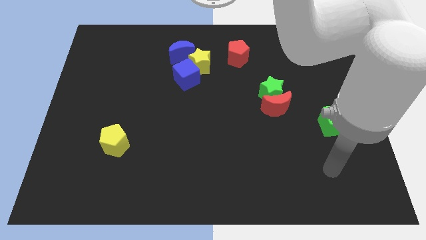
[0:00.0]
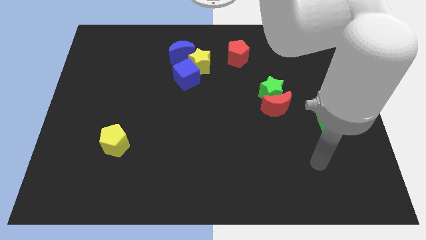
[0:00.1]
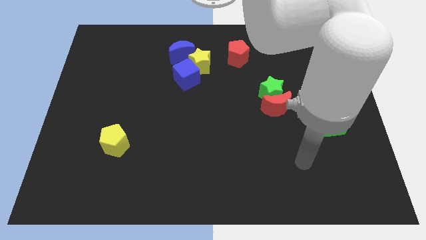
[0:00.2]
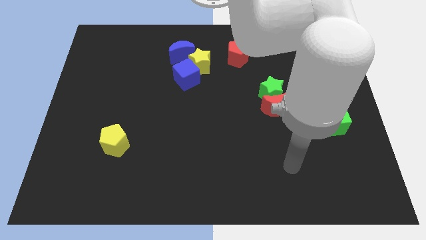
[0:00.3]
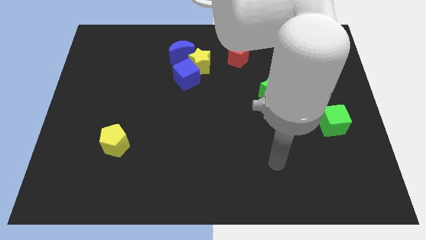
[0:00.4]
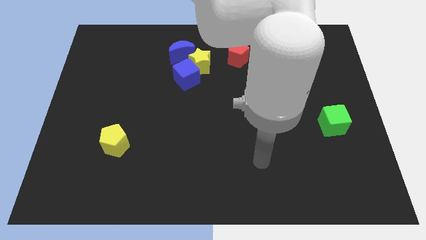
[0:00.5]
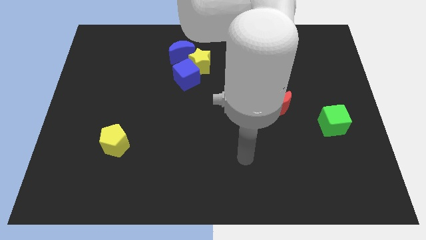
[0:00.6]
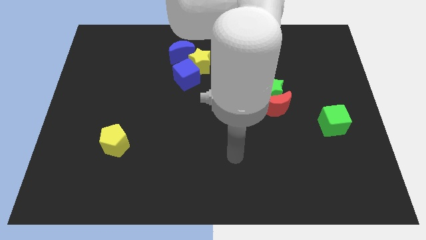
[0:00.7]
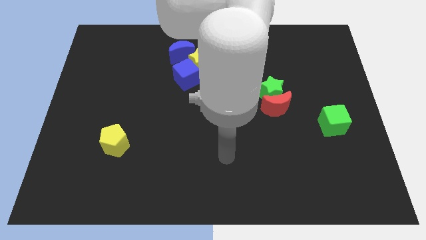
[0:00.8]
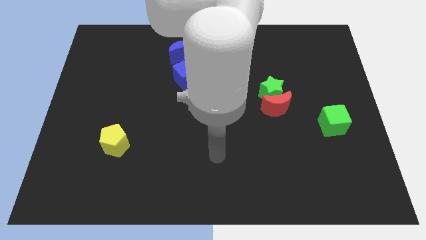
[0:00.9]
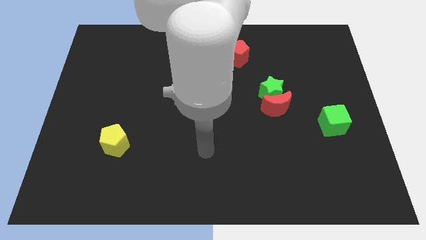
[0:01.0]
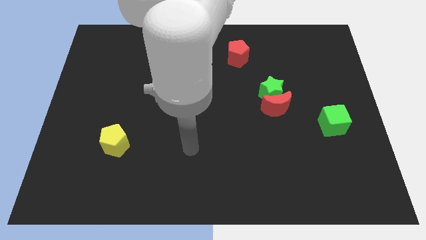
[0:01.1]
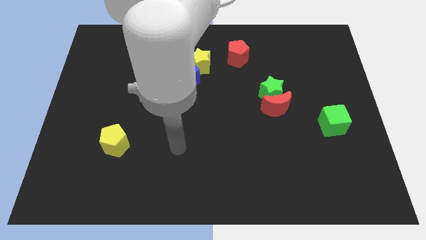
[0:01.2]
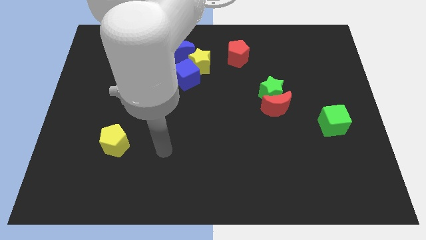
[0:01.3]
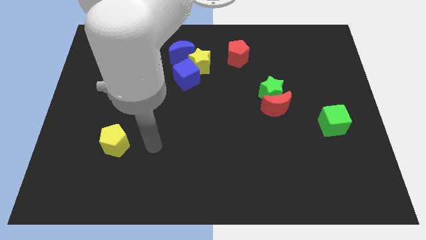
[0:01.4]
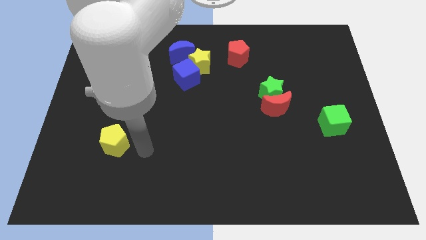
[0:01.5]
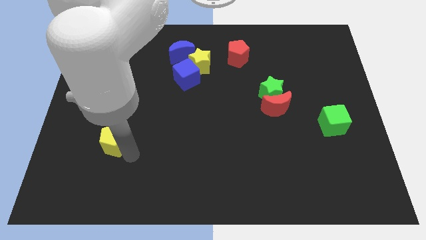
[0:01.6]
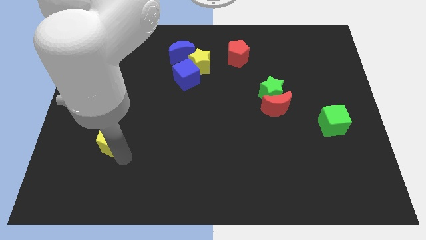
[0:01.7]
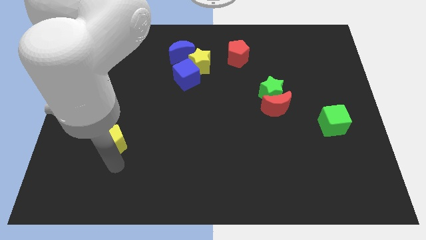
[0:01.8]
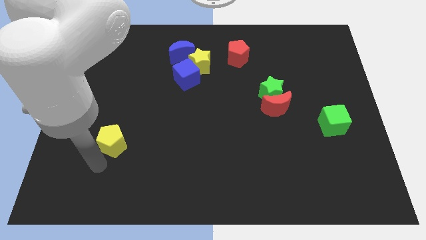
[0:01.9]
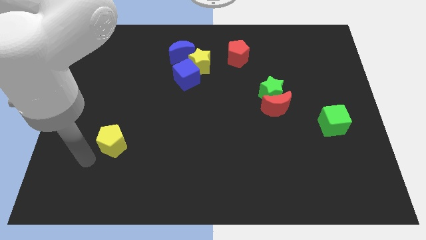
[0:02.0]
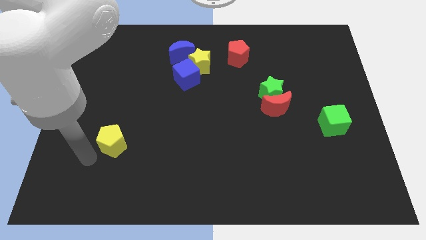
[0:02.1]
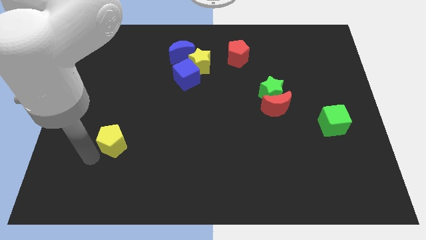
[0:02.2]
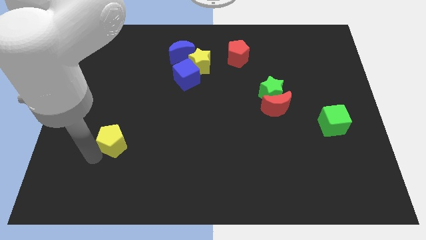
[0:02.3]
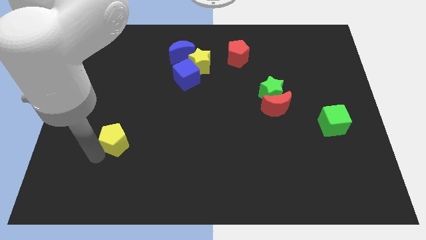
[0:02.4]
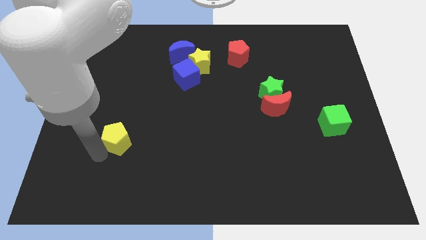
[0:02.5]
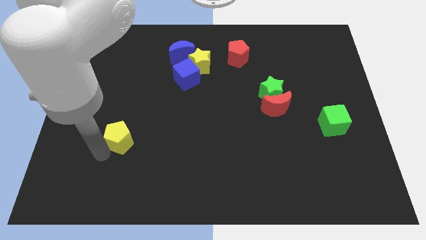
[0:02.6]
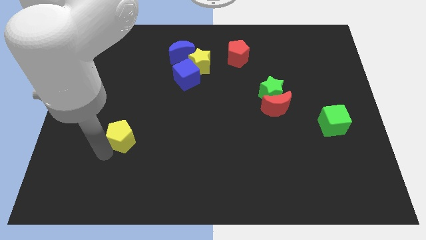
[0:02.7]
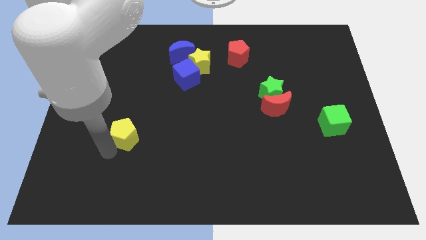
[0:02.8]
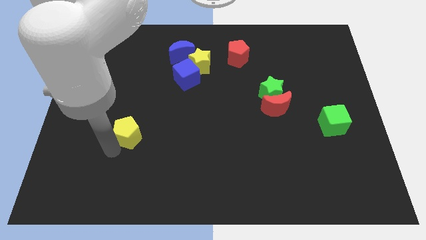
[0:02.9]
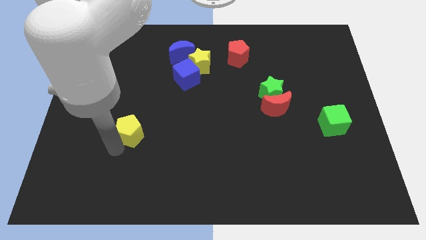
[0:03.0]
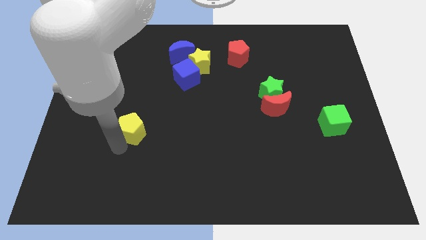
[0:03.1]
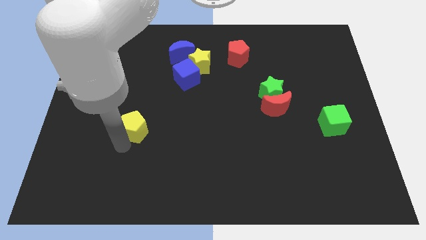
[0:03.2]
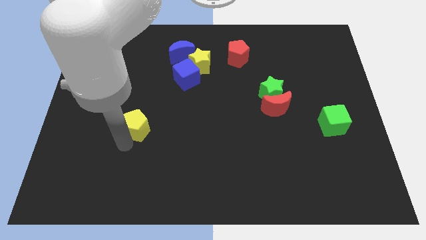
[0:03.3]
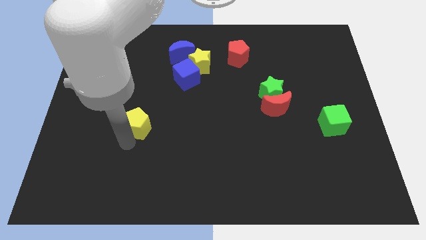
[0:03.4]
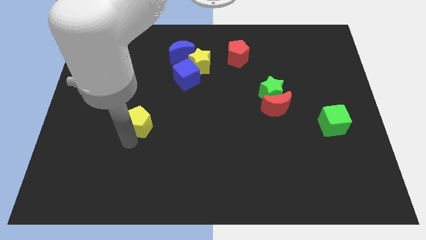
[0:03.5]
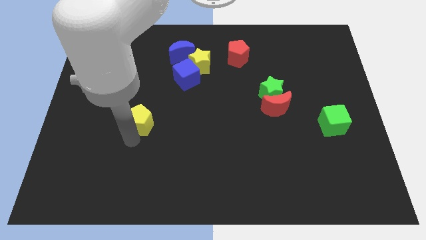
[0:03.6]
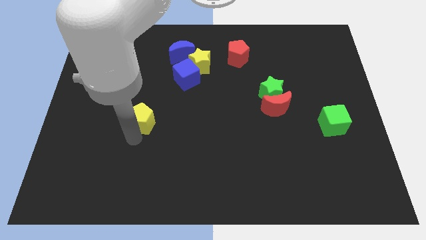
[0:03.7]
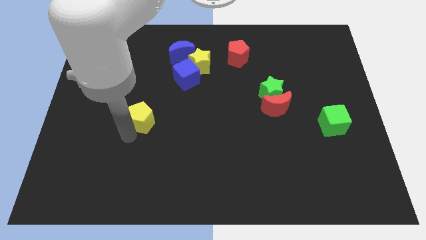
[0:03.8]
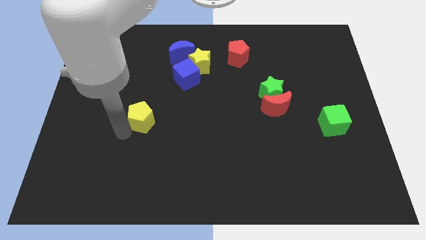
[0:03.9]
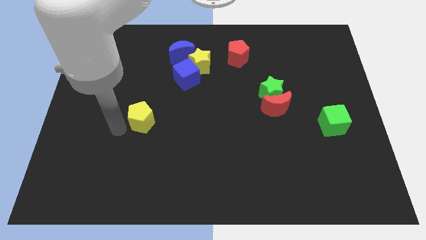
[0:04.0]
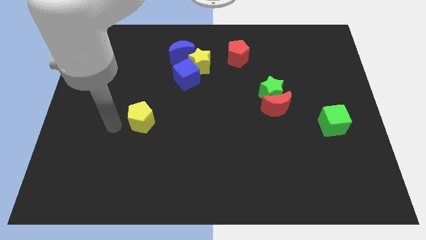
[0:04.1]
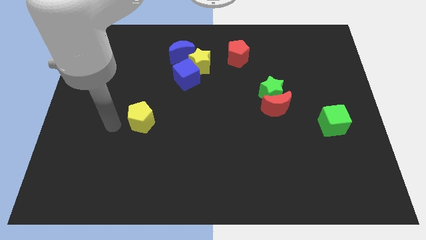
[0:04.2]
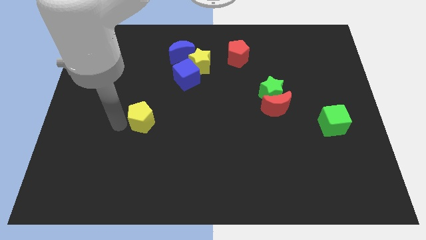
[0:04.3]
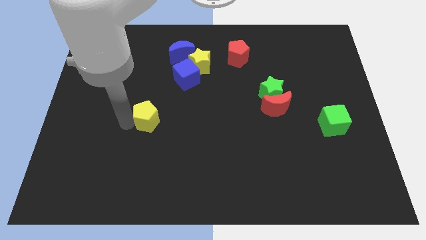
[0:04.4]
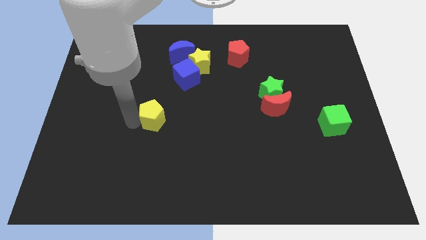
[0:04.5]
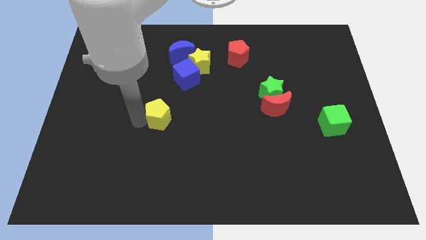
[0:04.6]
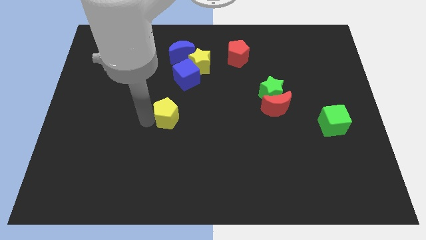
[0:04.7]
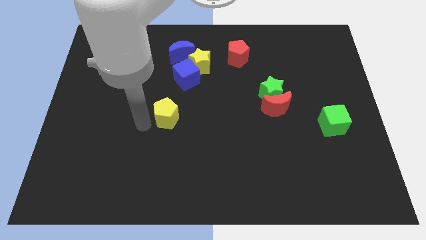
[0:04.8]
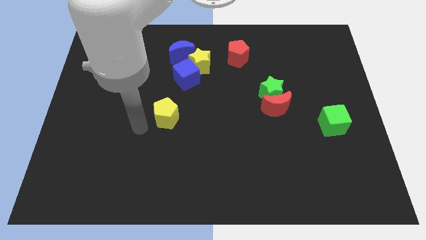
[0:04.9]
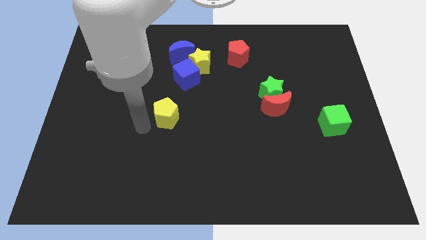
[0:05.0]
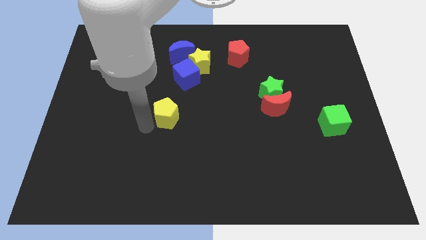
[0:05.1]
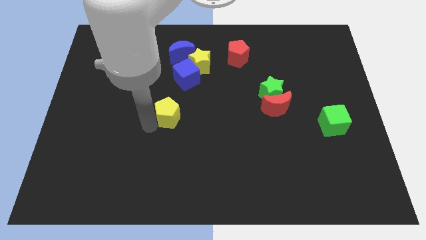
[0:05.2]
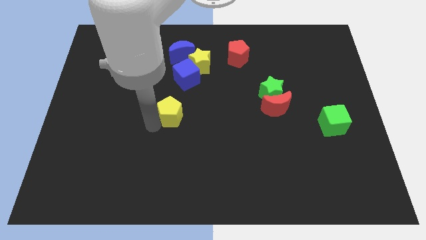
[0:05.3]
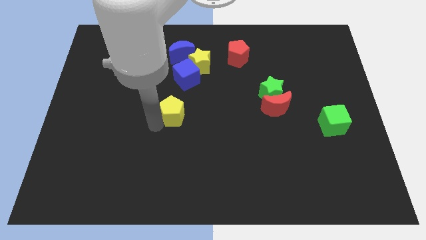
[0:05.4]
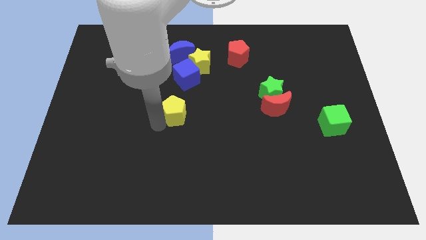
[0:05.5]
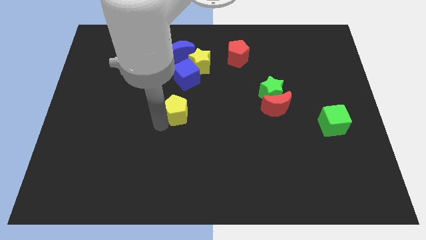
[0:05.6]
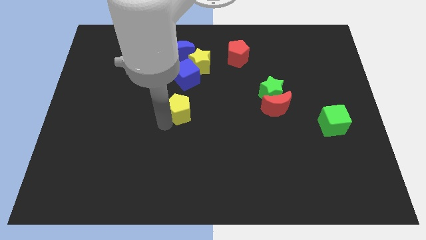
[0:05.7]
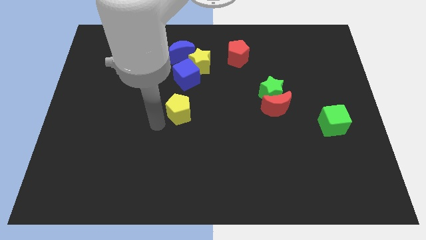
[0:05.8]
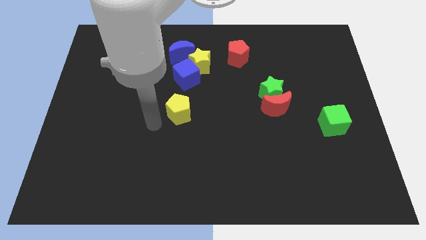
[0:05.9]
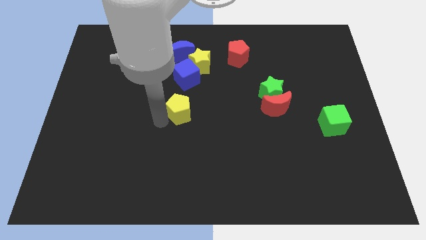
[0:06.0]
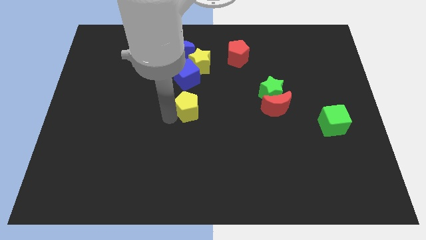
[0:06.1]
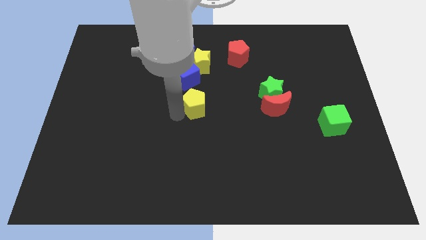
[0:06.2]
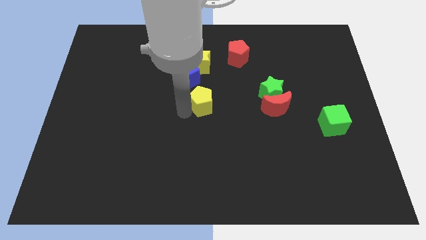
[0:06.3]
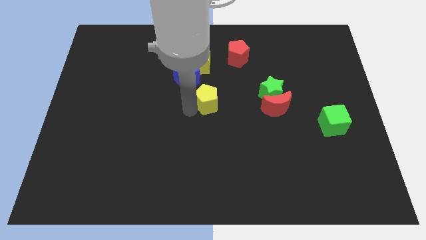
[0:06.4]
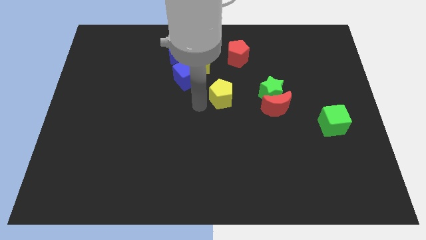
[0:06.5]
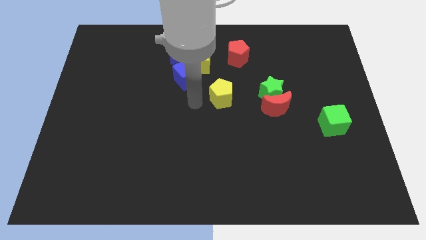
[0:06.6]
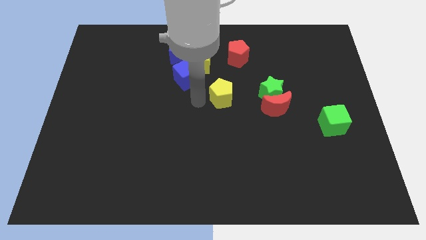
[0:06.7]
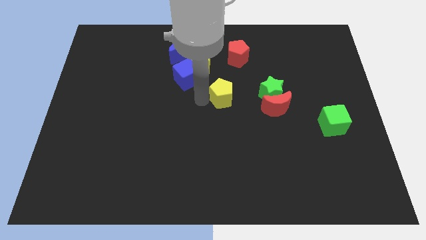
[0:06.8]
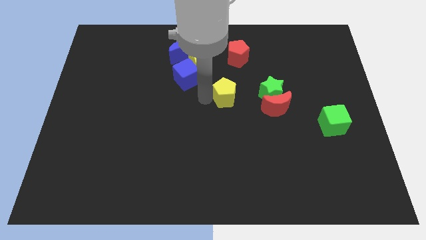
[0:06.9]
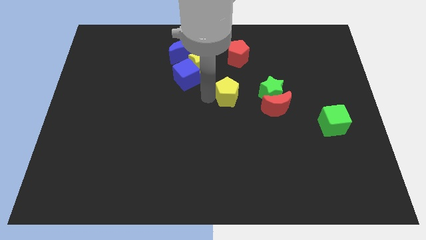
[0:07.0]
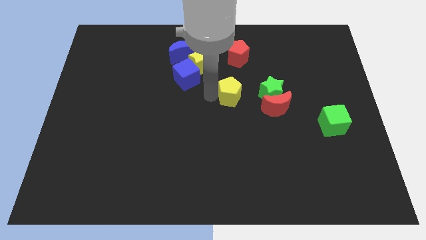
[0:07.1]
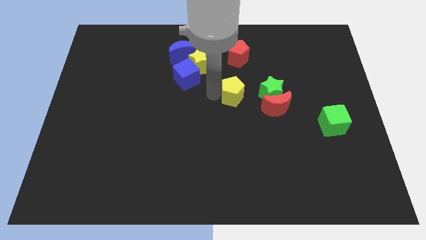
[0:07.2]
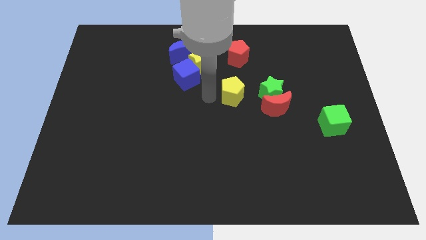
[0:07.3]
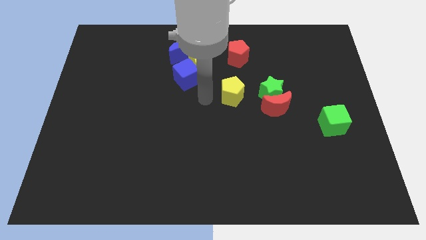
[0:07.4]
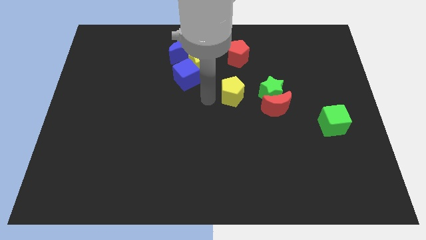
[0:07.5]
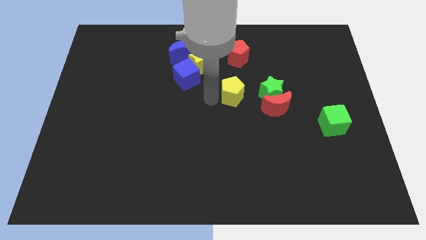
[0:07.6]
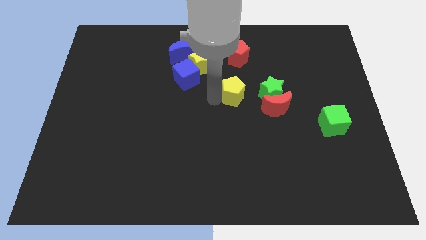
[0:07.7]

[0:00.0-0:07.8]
push the yellow pentagon to the top left side of the red moon

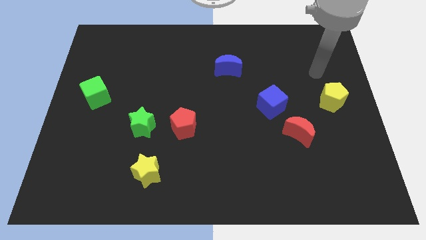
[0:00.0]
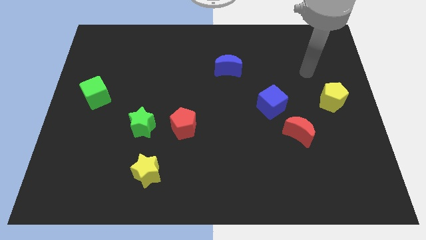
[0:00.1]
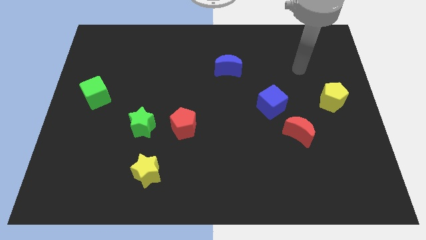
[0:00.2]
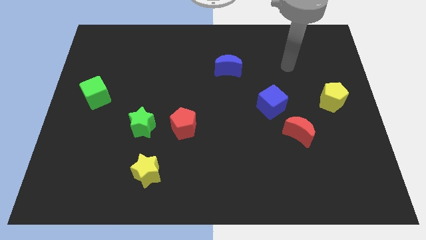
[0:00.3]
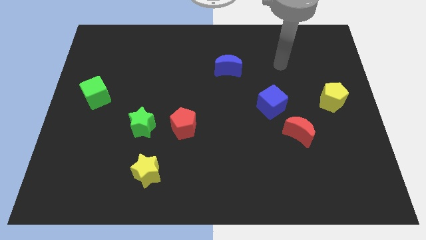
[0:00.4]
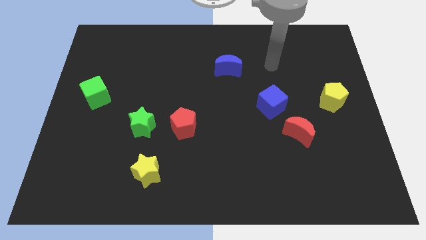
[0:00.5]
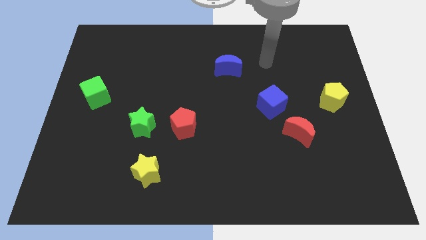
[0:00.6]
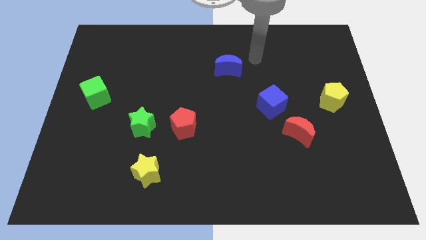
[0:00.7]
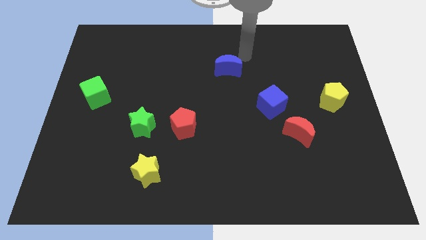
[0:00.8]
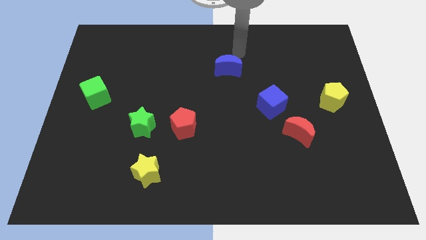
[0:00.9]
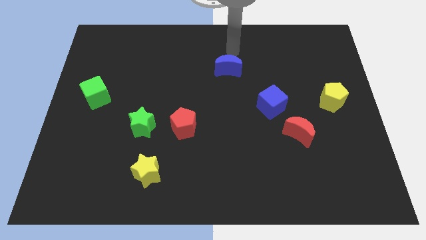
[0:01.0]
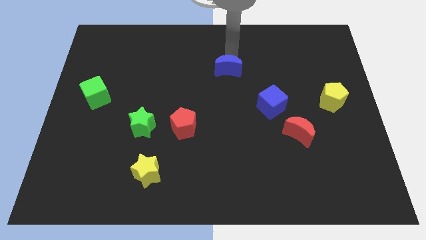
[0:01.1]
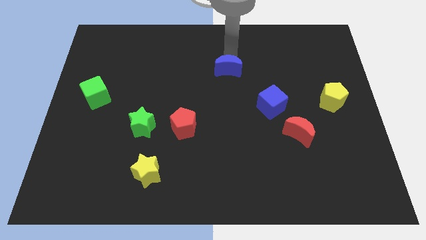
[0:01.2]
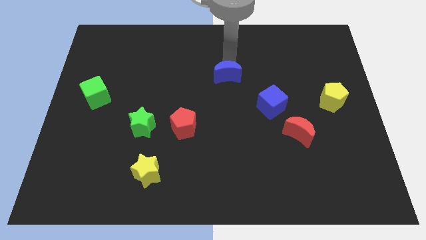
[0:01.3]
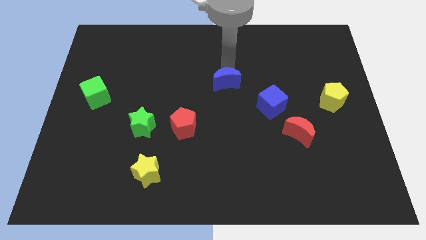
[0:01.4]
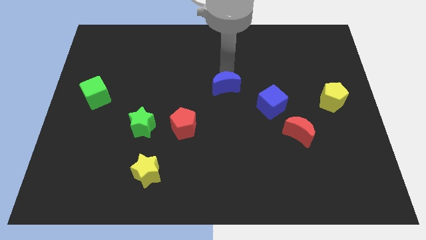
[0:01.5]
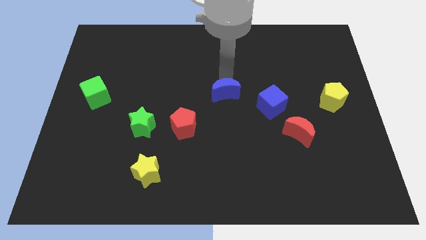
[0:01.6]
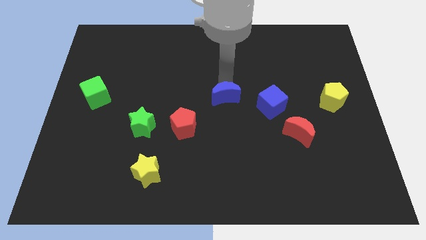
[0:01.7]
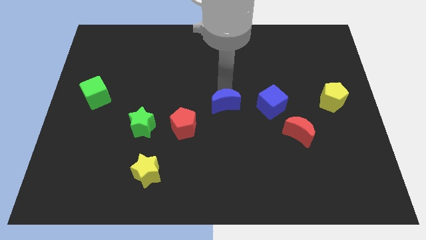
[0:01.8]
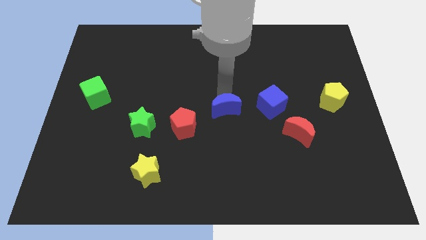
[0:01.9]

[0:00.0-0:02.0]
slide the blue moon to the right side of the red pentagon
